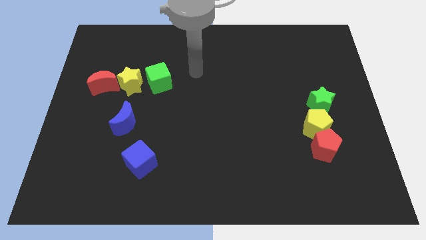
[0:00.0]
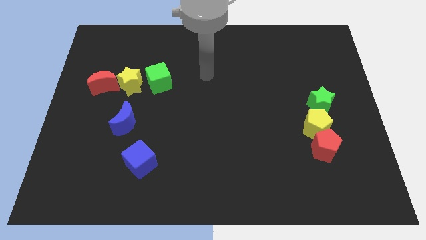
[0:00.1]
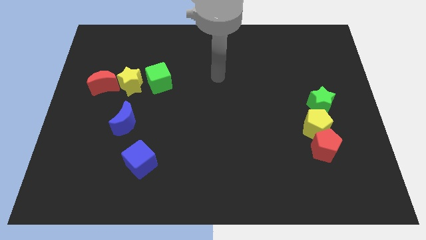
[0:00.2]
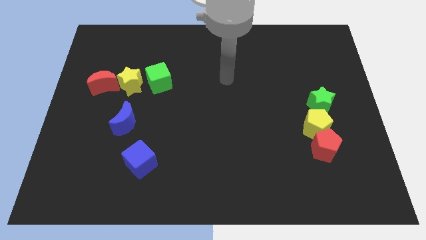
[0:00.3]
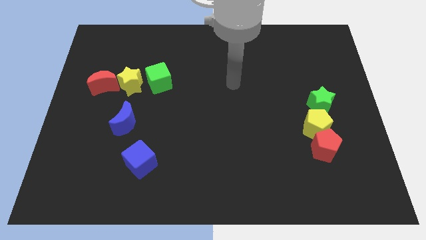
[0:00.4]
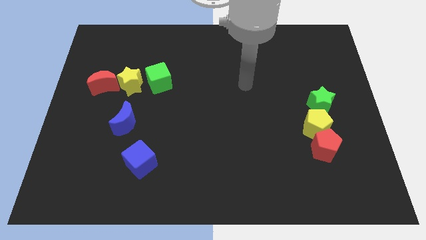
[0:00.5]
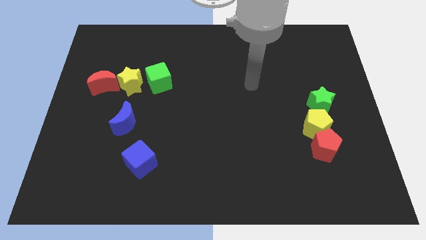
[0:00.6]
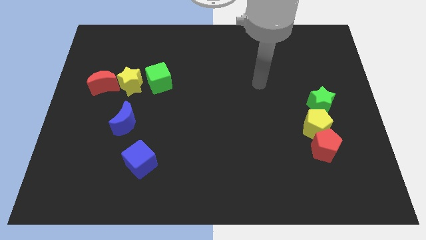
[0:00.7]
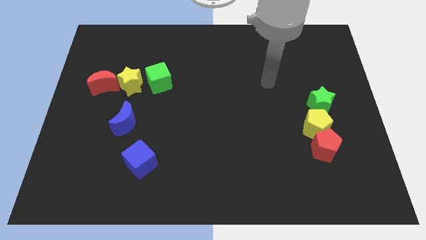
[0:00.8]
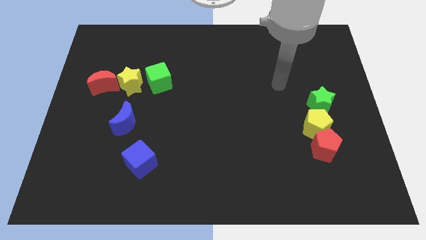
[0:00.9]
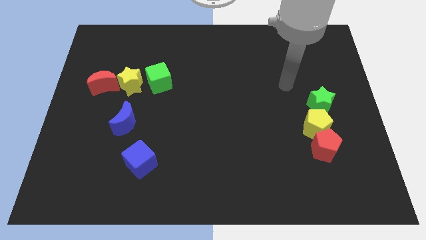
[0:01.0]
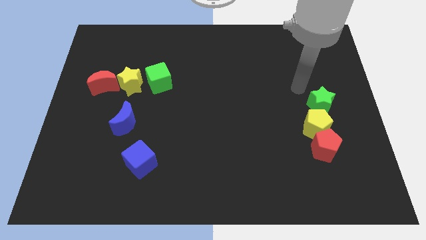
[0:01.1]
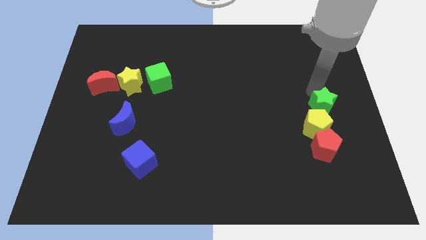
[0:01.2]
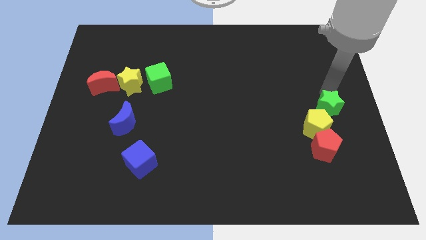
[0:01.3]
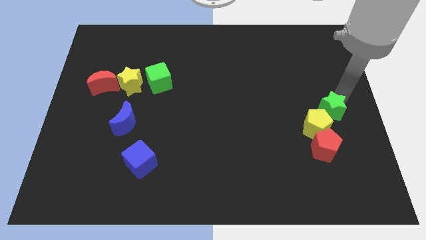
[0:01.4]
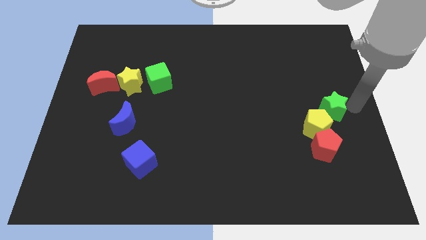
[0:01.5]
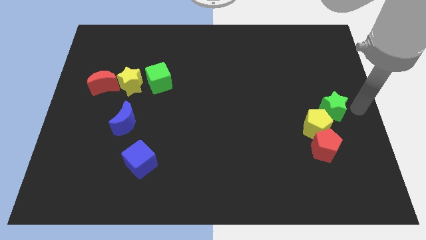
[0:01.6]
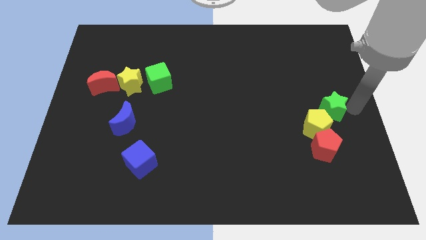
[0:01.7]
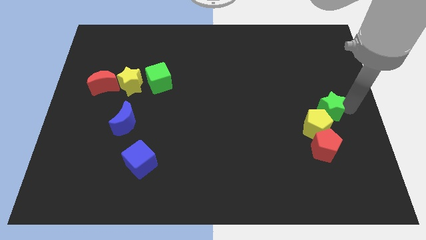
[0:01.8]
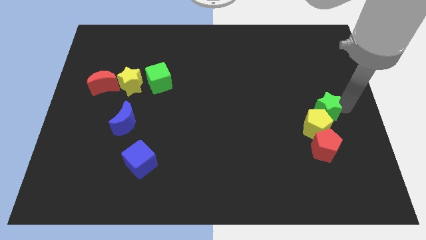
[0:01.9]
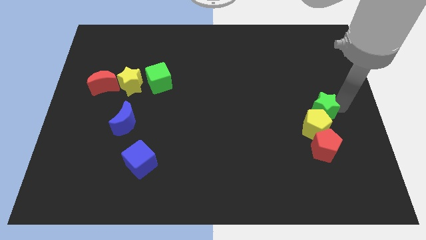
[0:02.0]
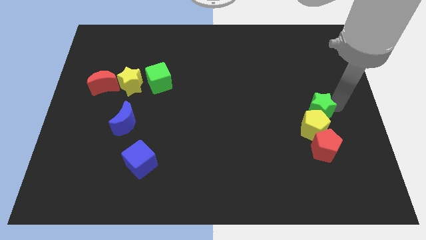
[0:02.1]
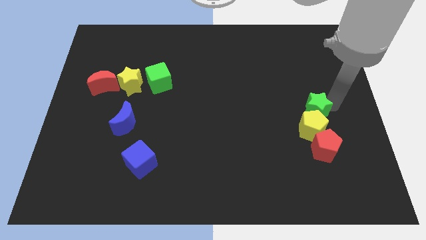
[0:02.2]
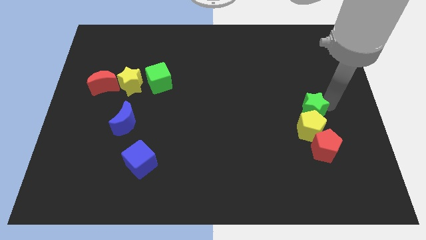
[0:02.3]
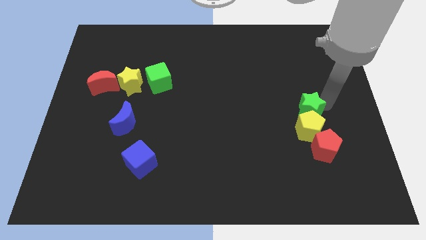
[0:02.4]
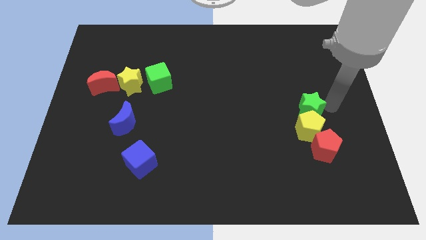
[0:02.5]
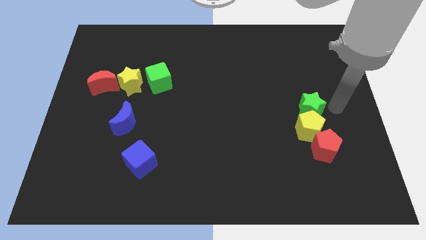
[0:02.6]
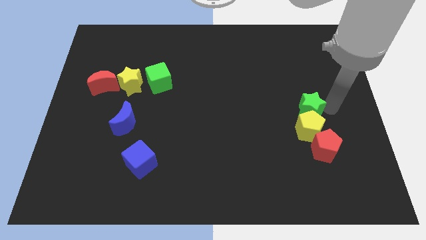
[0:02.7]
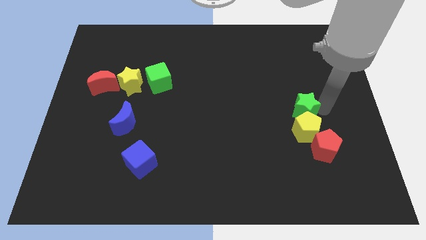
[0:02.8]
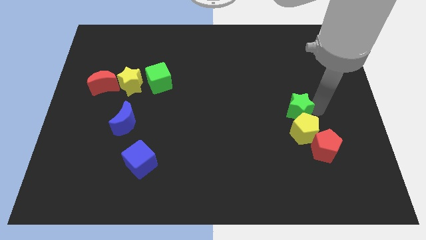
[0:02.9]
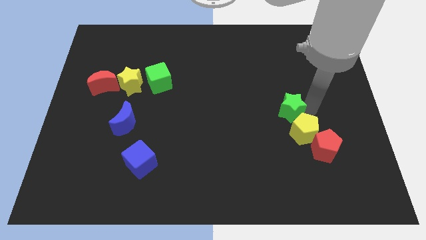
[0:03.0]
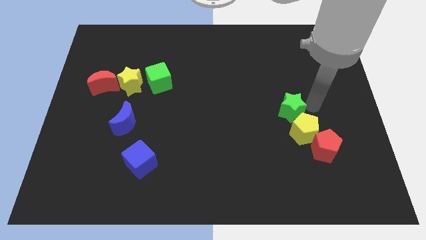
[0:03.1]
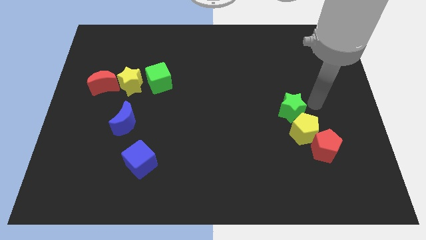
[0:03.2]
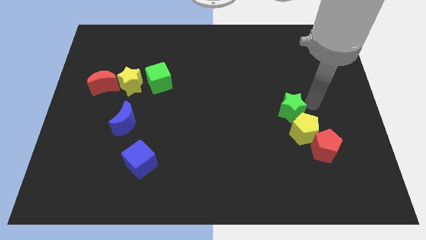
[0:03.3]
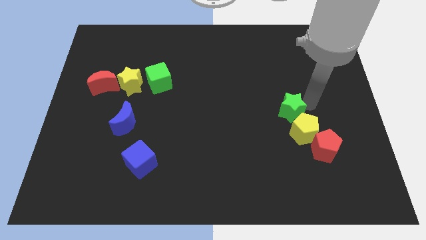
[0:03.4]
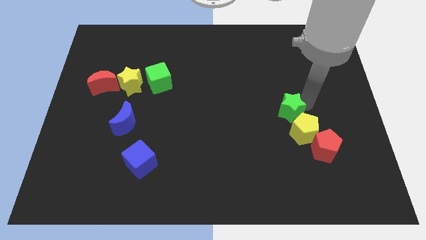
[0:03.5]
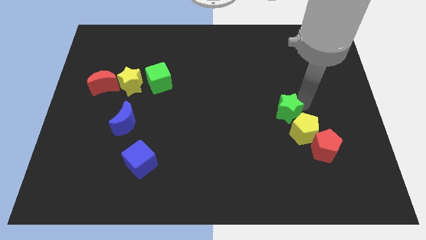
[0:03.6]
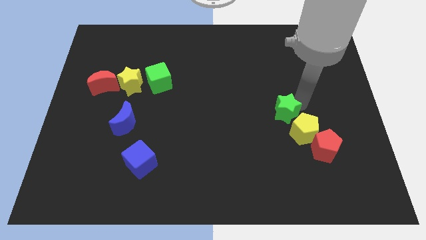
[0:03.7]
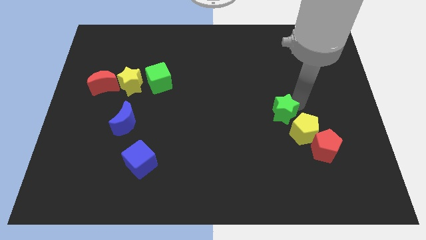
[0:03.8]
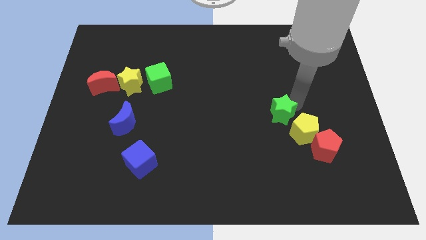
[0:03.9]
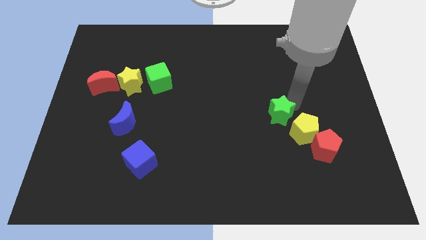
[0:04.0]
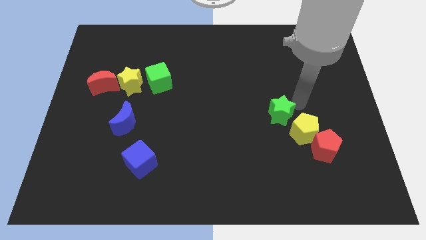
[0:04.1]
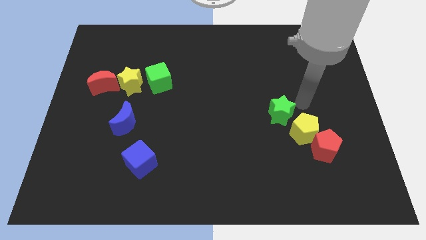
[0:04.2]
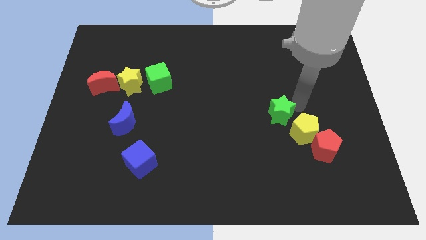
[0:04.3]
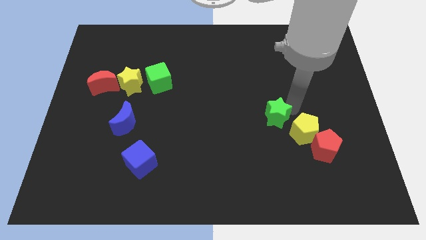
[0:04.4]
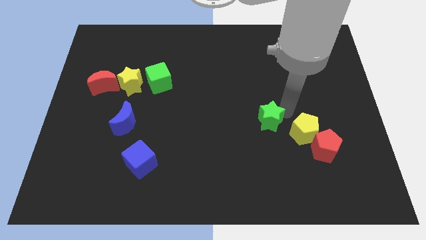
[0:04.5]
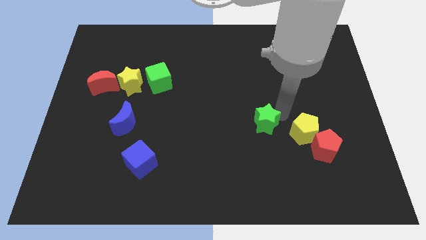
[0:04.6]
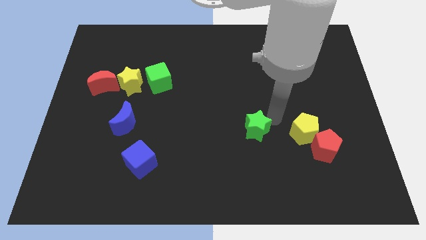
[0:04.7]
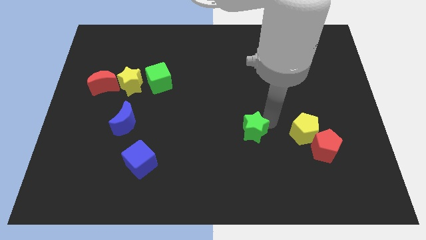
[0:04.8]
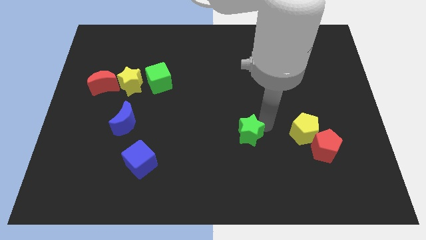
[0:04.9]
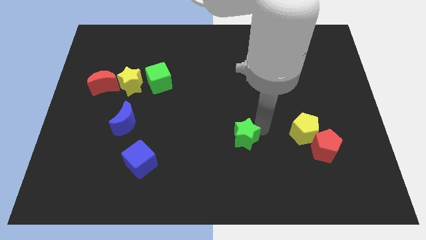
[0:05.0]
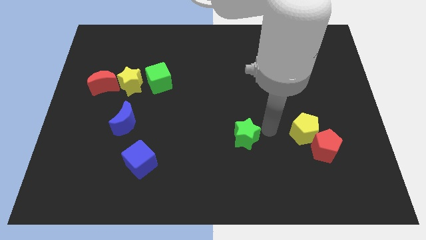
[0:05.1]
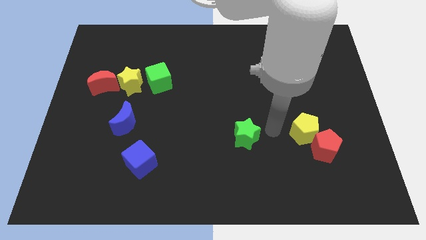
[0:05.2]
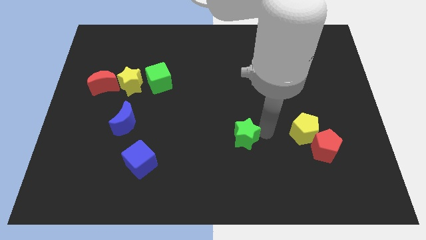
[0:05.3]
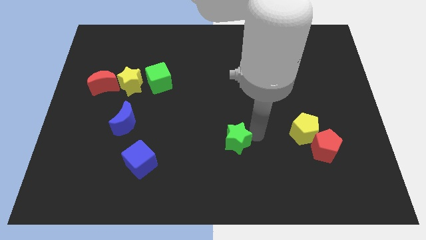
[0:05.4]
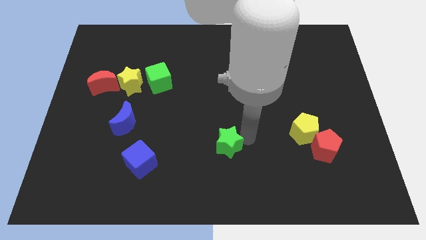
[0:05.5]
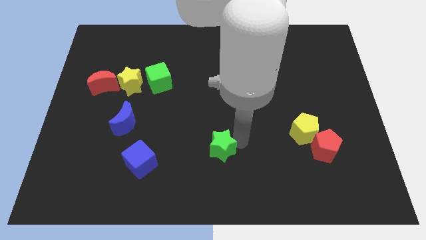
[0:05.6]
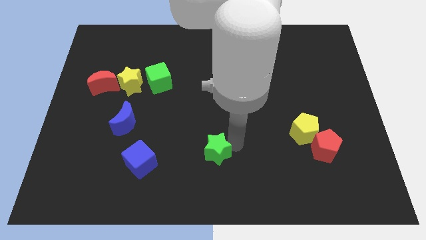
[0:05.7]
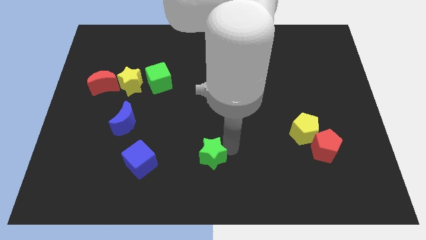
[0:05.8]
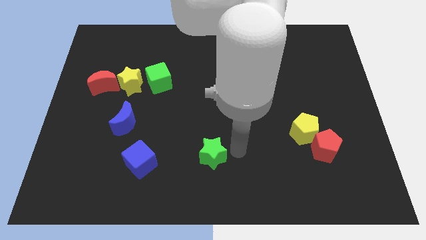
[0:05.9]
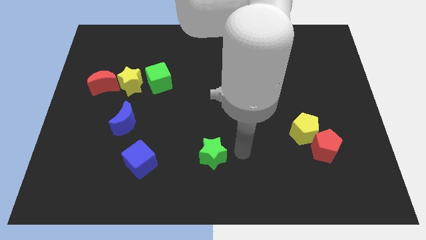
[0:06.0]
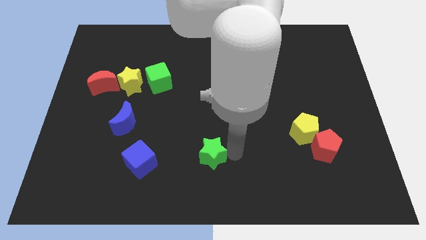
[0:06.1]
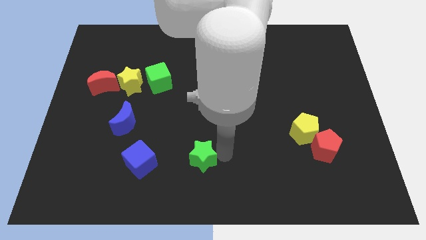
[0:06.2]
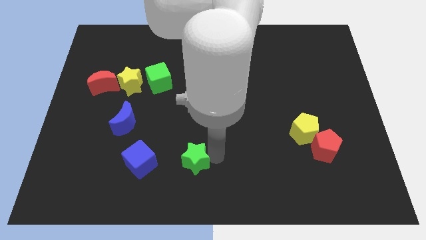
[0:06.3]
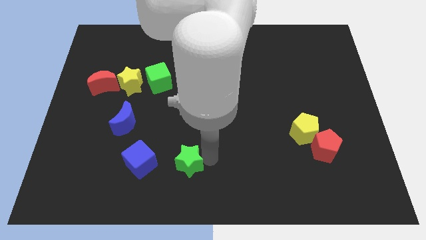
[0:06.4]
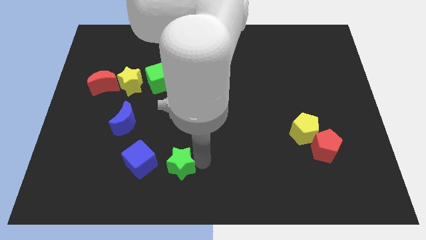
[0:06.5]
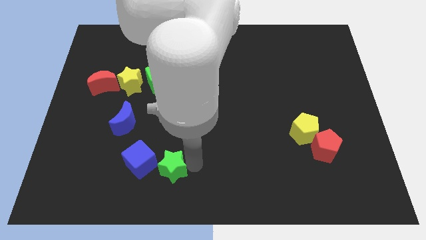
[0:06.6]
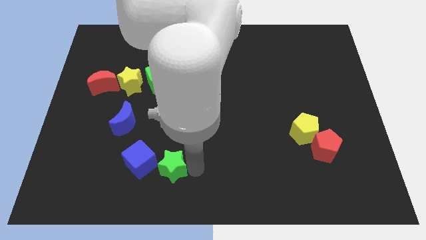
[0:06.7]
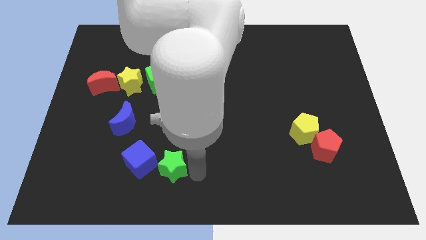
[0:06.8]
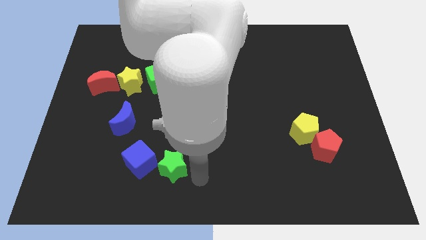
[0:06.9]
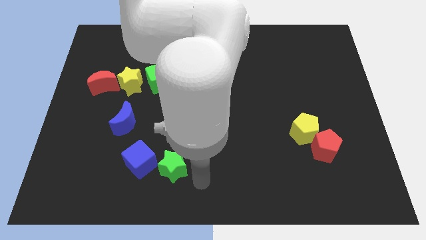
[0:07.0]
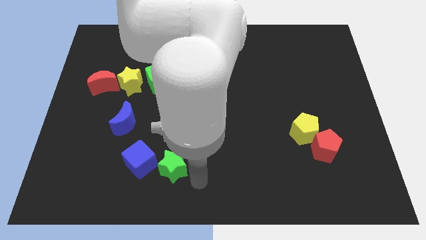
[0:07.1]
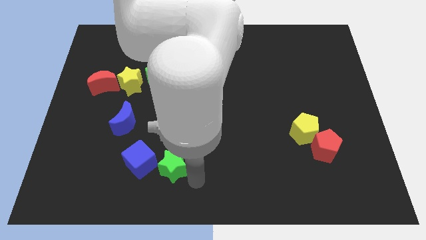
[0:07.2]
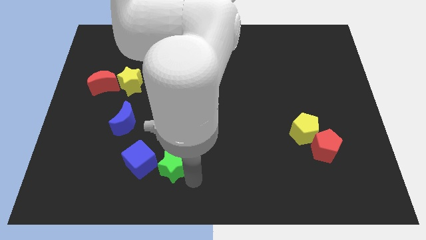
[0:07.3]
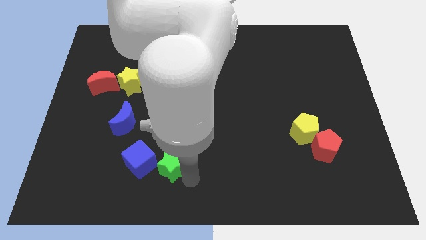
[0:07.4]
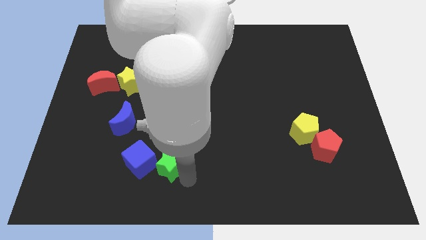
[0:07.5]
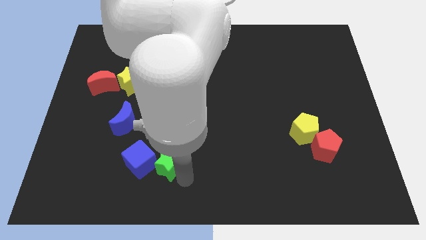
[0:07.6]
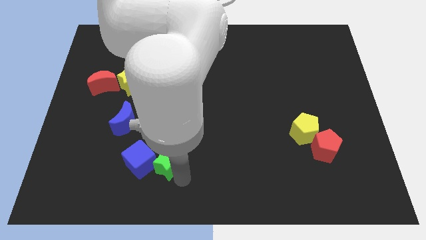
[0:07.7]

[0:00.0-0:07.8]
slide the green star to the blue cube
